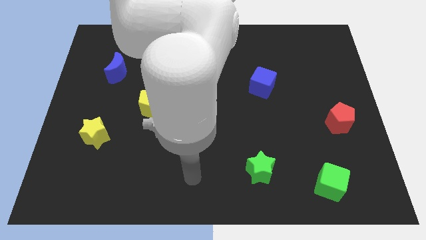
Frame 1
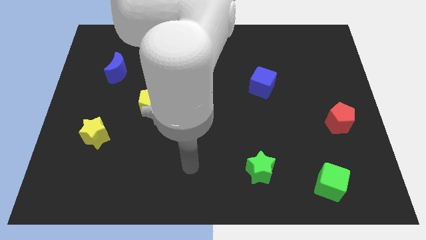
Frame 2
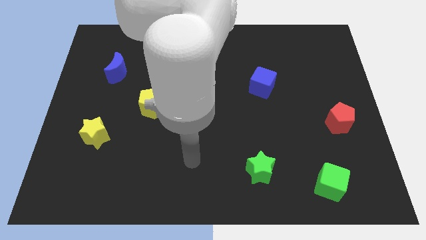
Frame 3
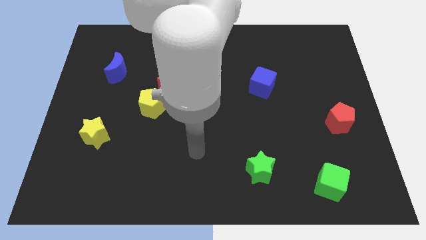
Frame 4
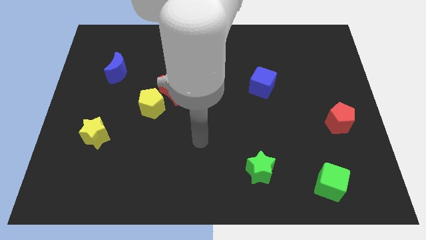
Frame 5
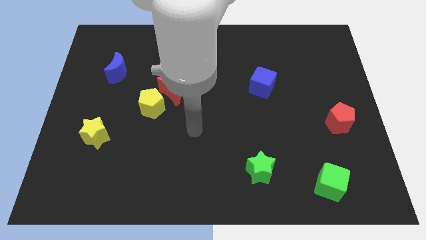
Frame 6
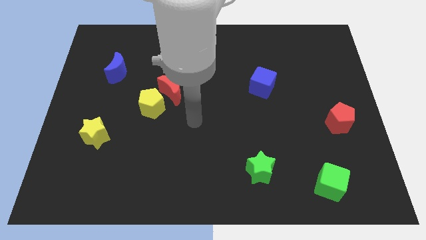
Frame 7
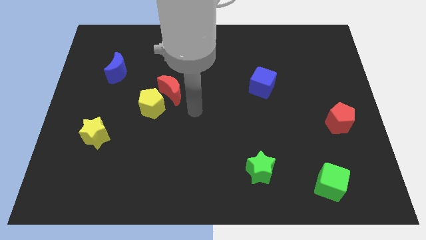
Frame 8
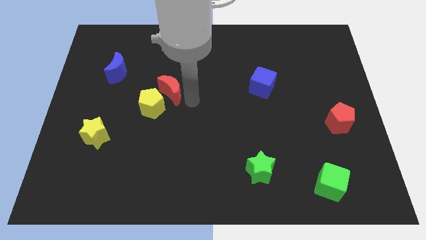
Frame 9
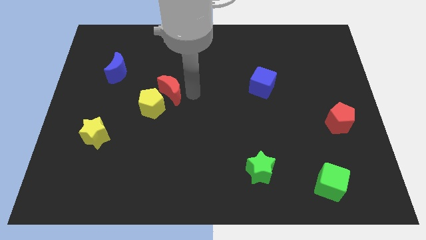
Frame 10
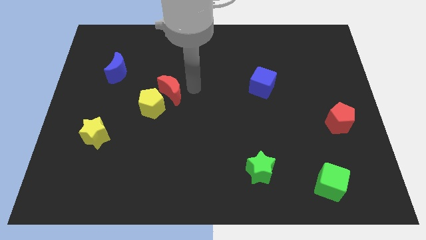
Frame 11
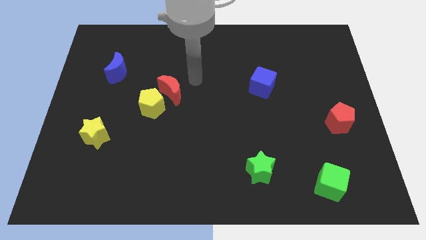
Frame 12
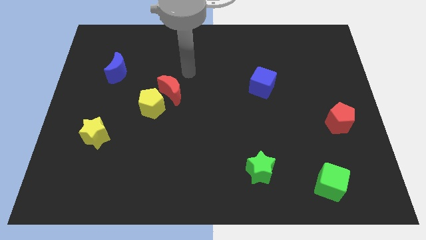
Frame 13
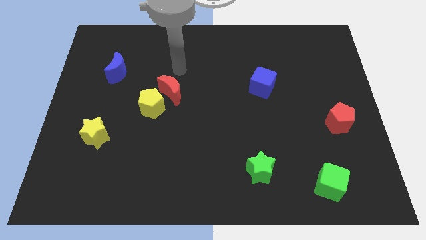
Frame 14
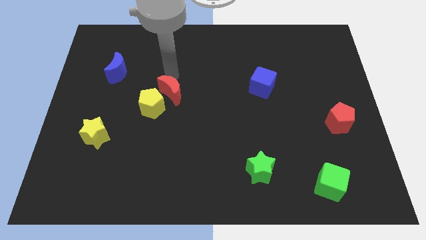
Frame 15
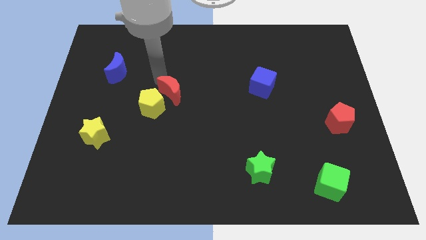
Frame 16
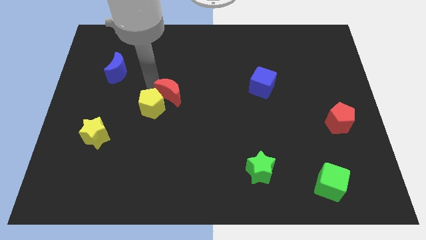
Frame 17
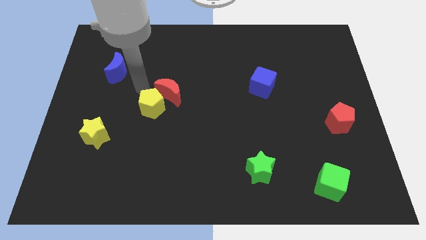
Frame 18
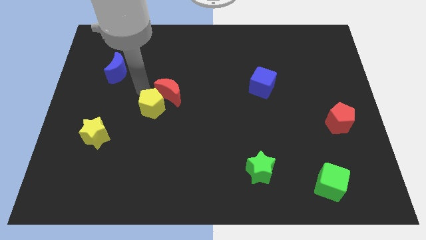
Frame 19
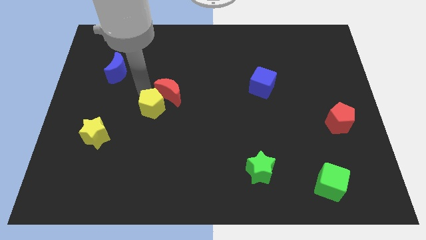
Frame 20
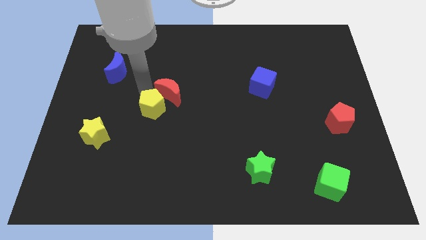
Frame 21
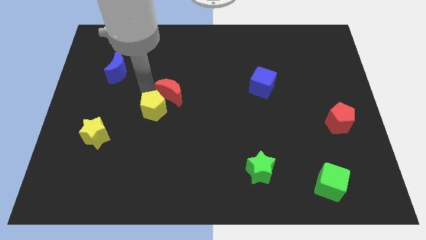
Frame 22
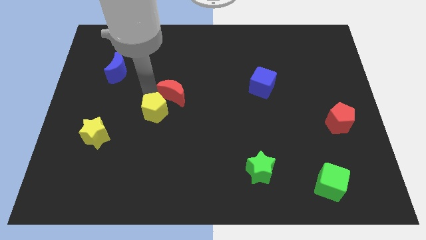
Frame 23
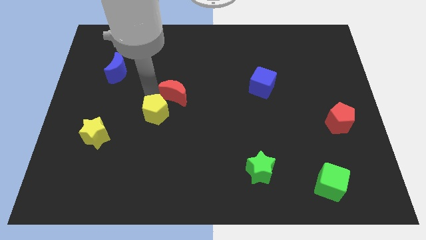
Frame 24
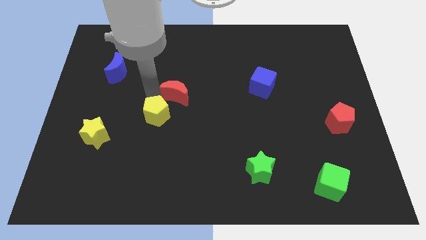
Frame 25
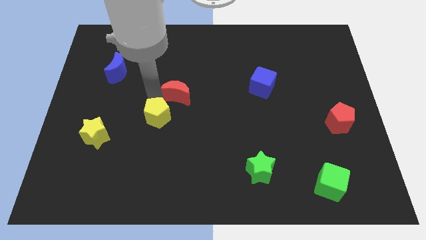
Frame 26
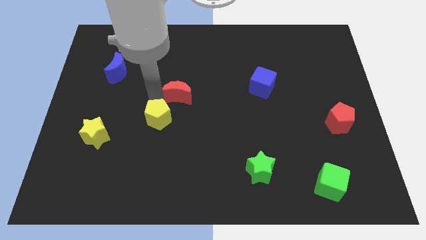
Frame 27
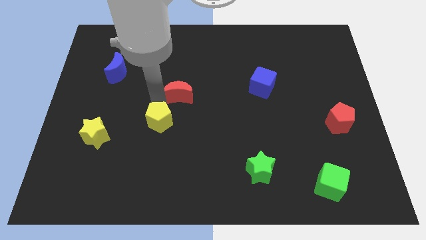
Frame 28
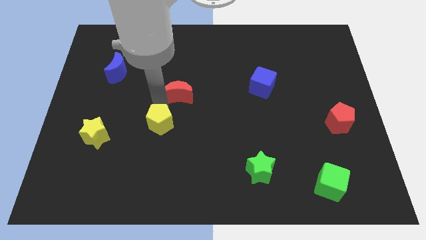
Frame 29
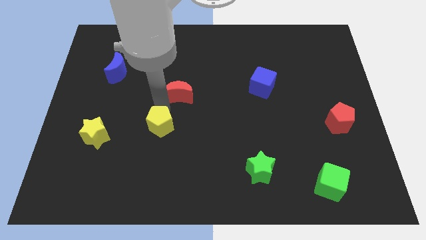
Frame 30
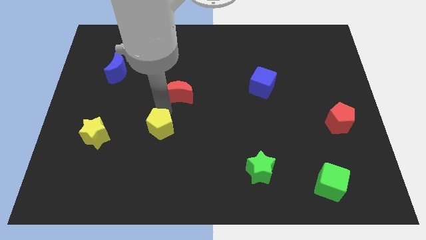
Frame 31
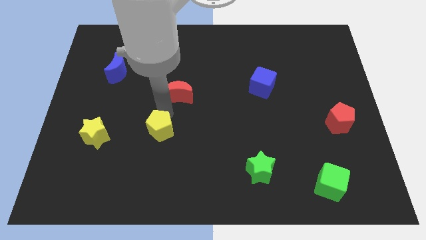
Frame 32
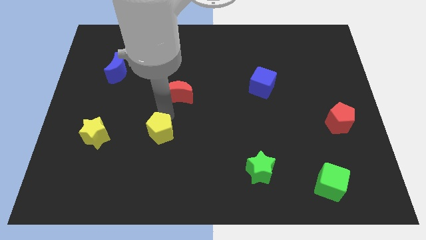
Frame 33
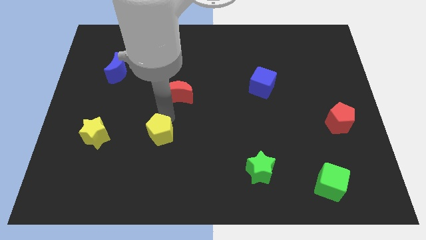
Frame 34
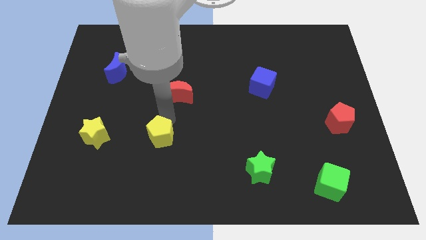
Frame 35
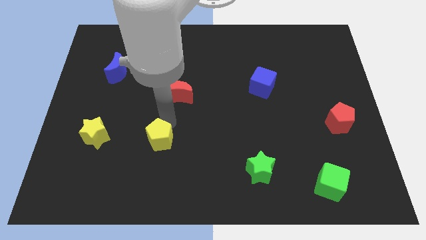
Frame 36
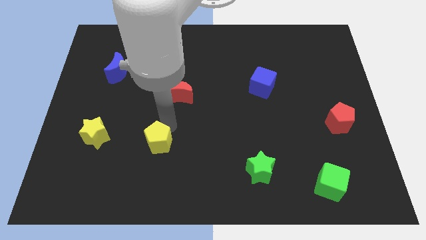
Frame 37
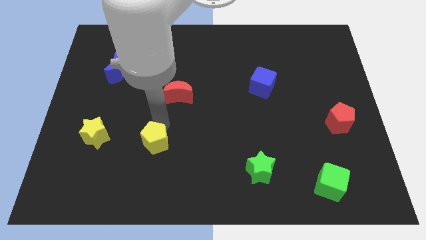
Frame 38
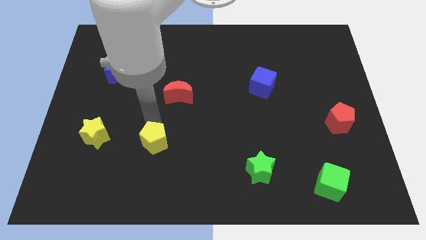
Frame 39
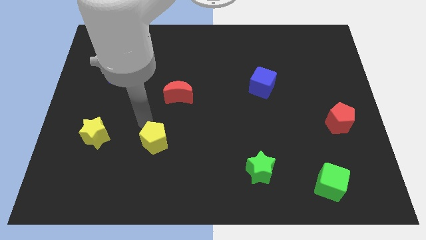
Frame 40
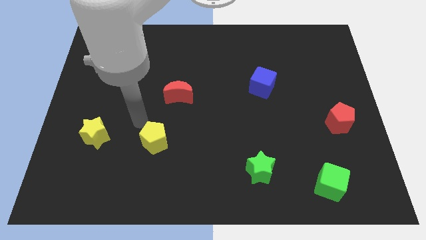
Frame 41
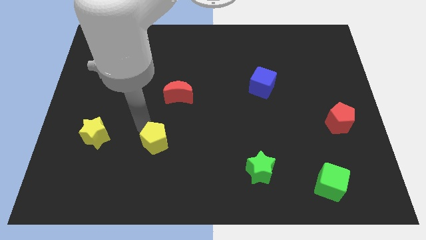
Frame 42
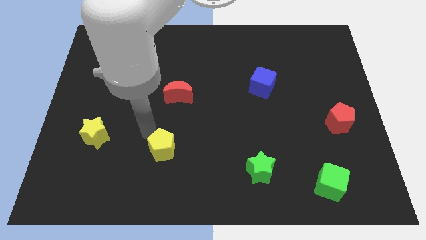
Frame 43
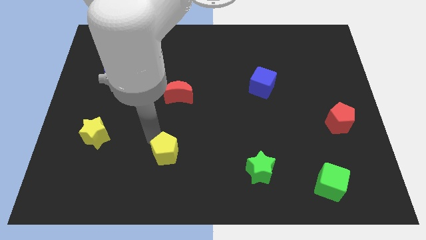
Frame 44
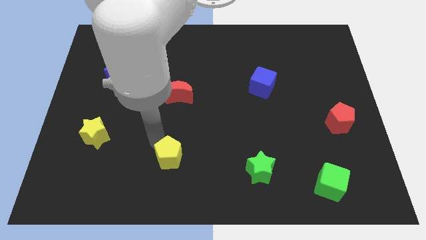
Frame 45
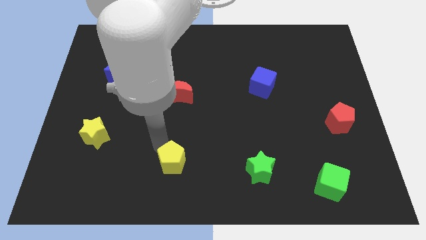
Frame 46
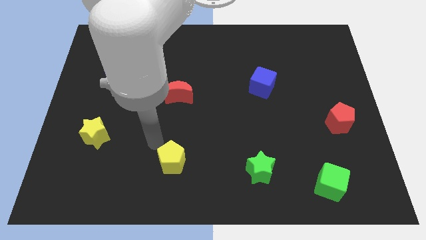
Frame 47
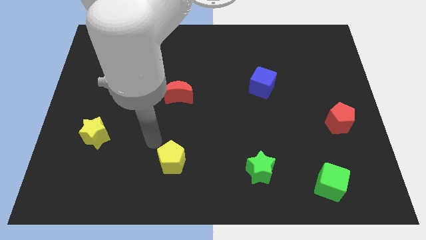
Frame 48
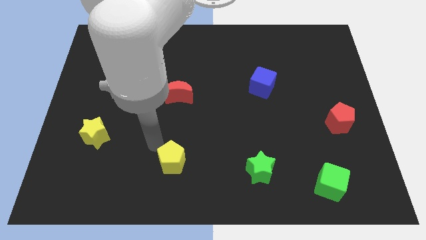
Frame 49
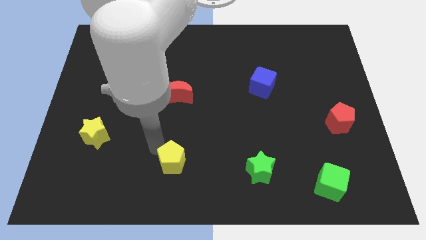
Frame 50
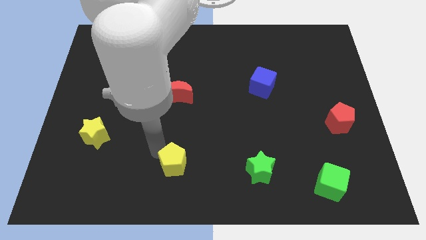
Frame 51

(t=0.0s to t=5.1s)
move the yellow pentagon to the bottom side

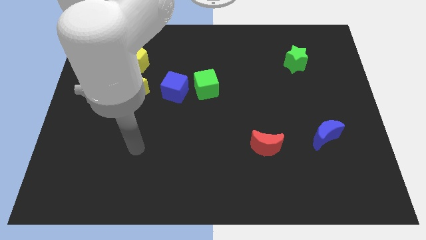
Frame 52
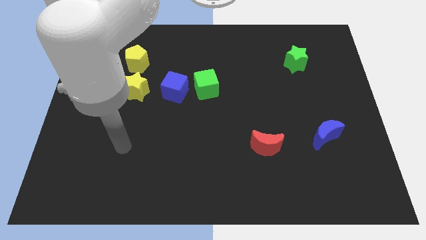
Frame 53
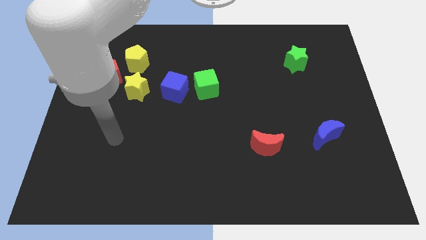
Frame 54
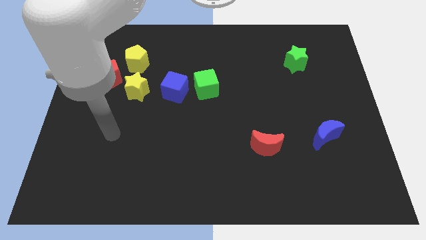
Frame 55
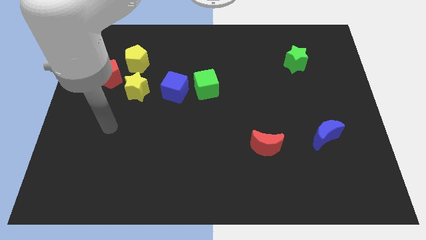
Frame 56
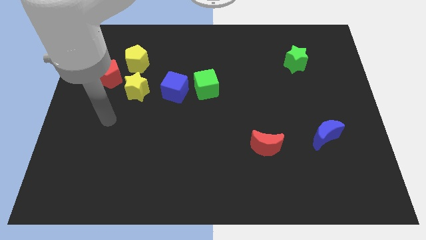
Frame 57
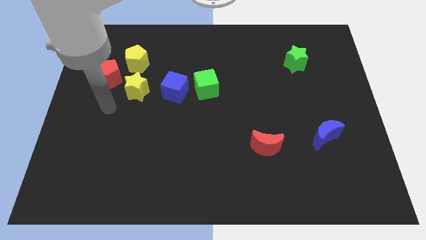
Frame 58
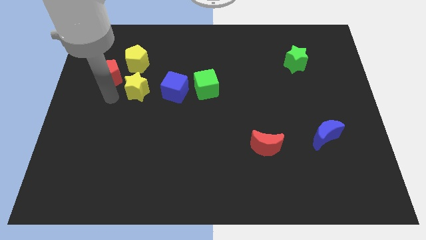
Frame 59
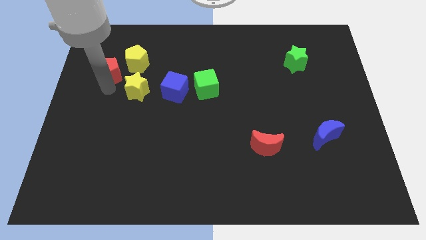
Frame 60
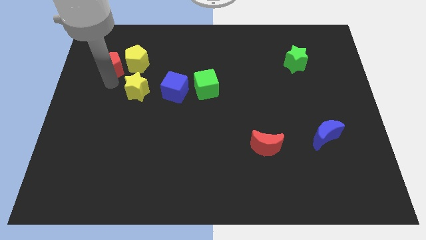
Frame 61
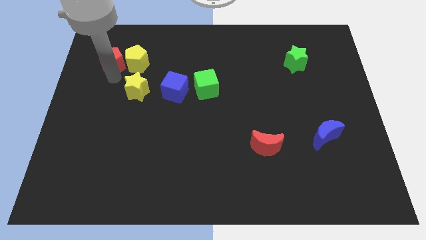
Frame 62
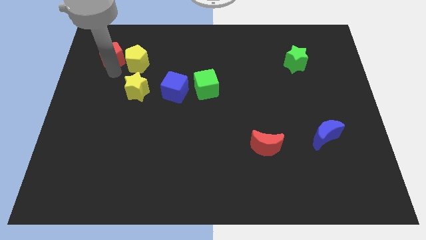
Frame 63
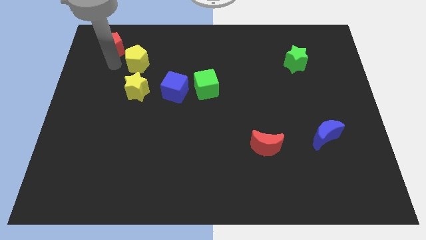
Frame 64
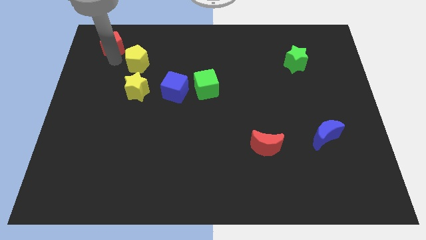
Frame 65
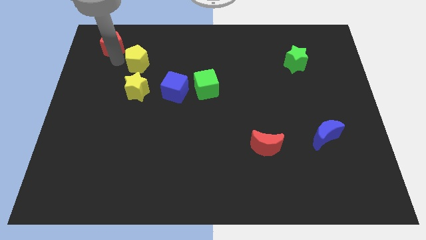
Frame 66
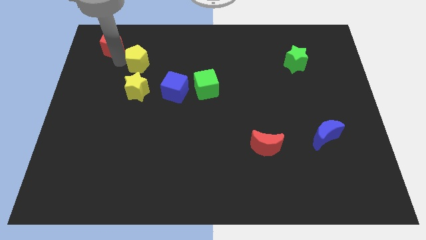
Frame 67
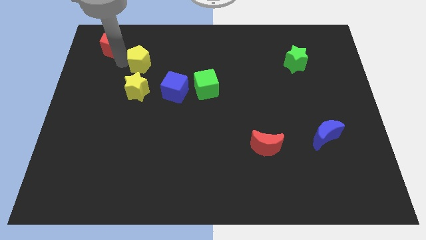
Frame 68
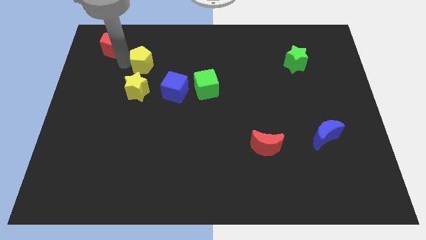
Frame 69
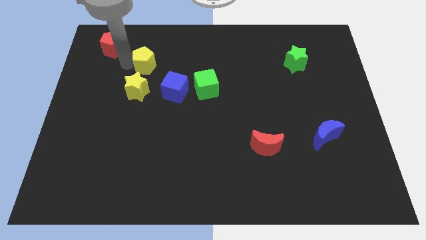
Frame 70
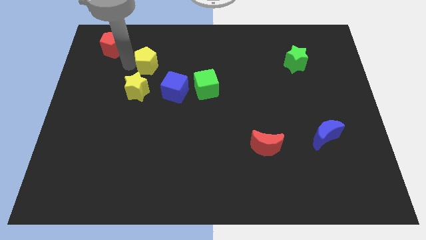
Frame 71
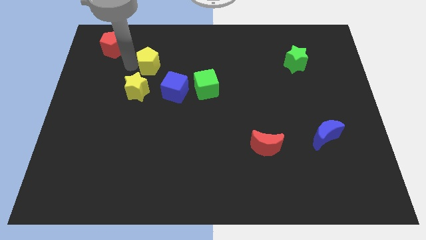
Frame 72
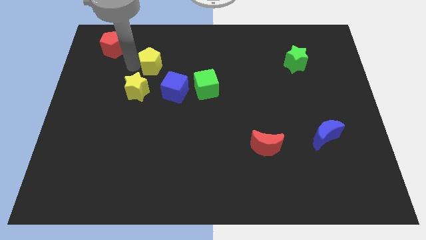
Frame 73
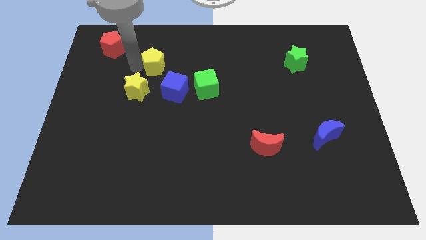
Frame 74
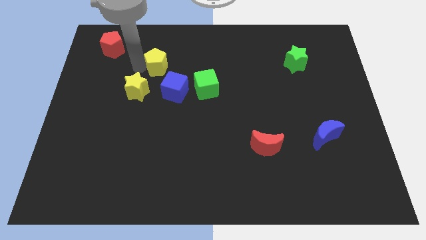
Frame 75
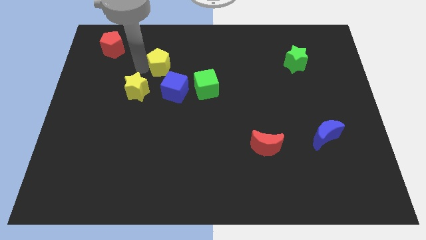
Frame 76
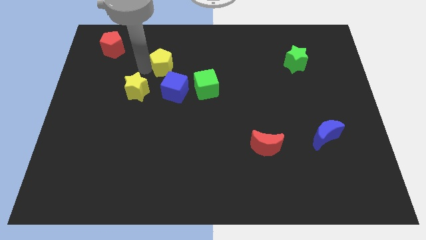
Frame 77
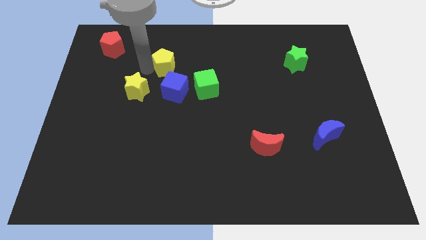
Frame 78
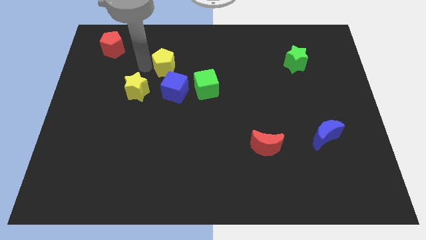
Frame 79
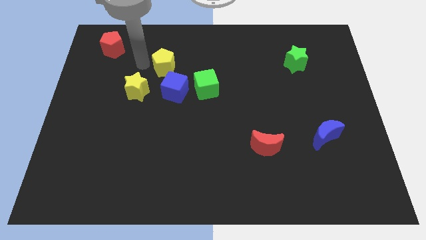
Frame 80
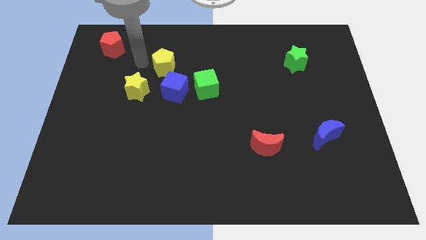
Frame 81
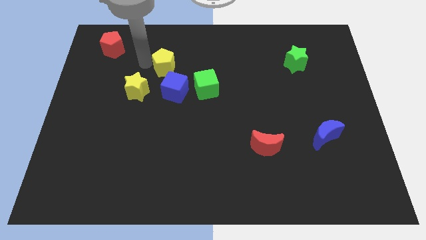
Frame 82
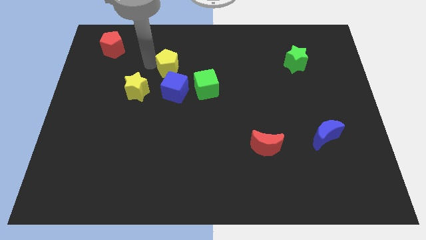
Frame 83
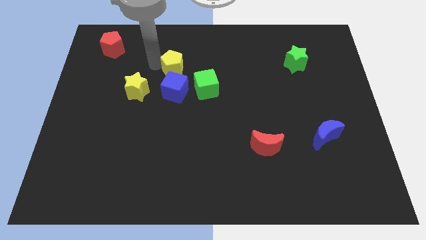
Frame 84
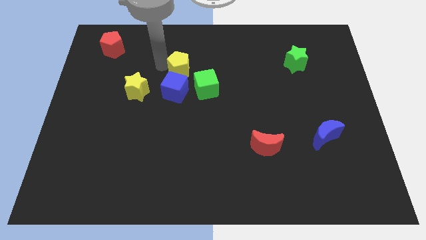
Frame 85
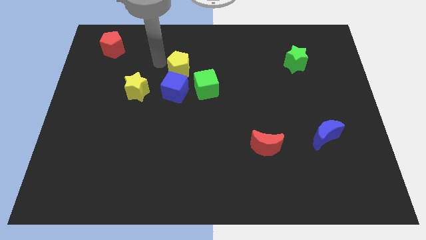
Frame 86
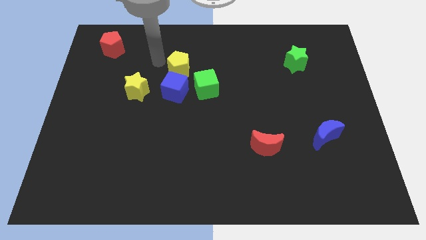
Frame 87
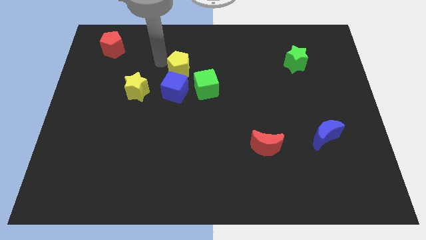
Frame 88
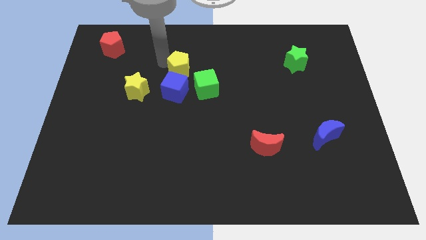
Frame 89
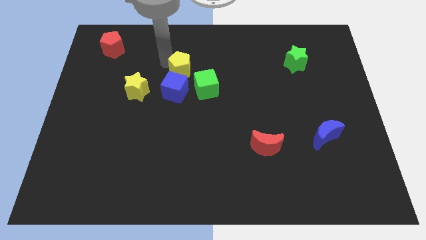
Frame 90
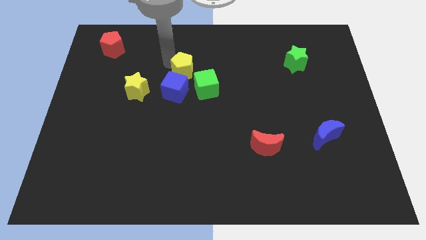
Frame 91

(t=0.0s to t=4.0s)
put the yellow pentagon to the middle
